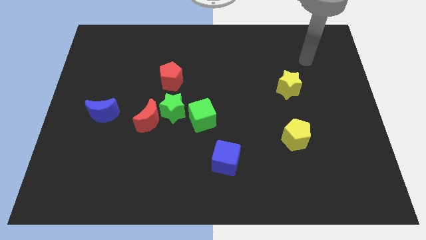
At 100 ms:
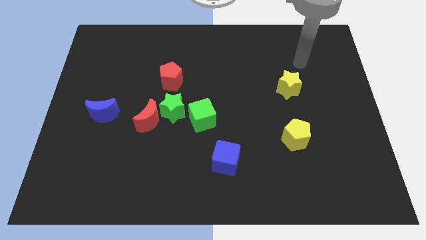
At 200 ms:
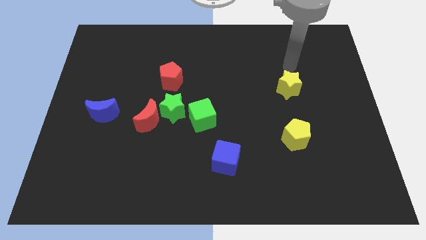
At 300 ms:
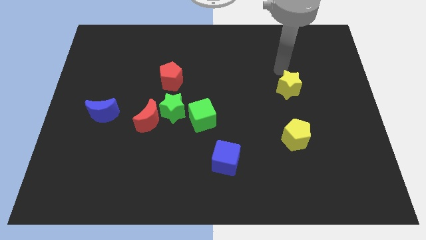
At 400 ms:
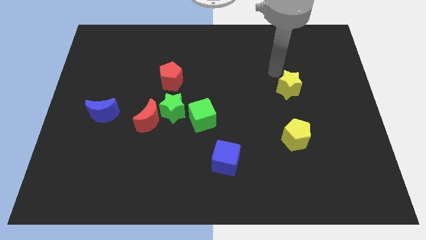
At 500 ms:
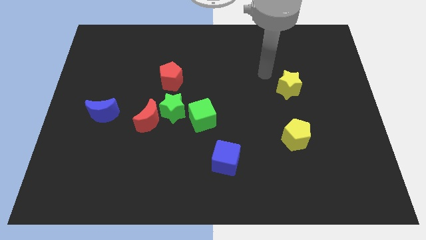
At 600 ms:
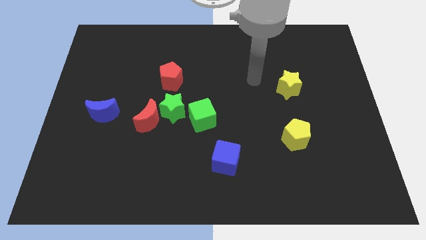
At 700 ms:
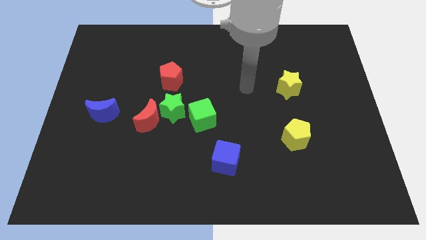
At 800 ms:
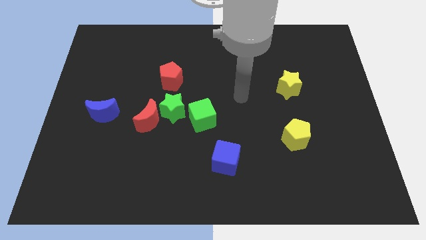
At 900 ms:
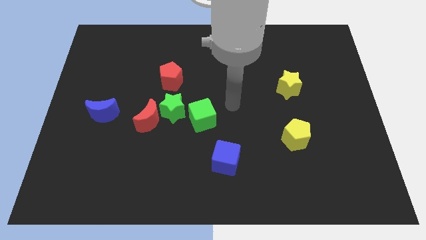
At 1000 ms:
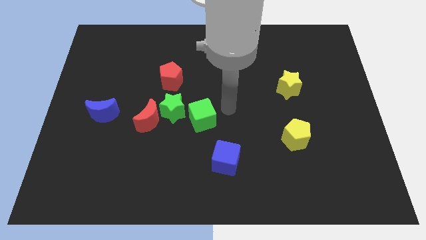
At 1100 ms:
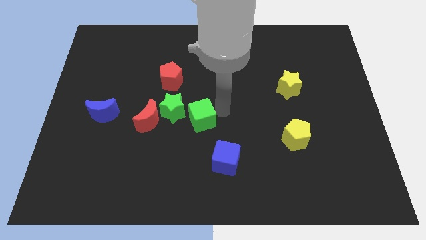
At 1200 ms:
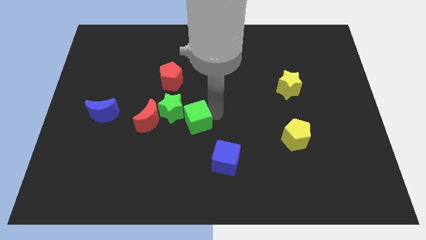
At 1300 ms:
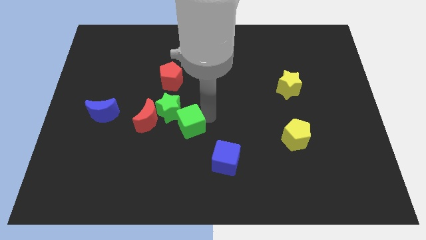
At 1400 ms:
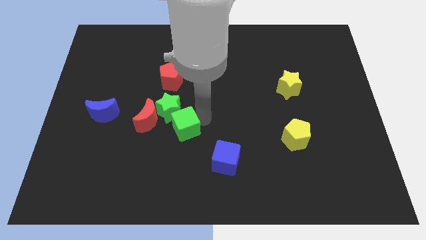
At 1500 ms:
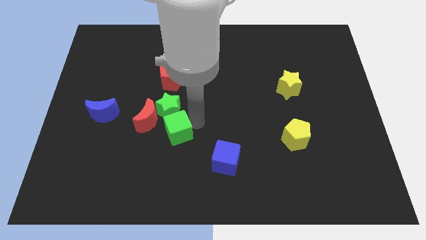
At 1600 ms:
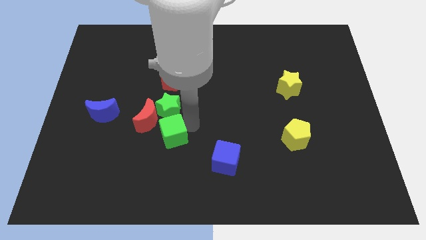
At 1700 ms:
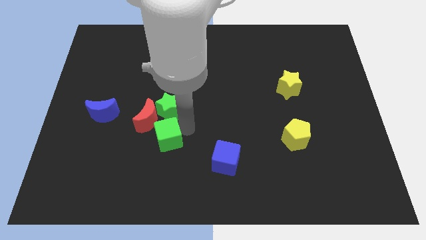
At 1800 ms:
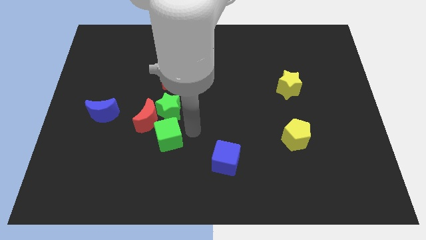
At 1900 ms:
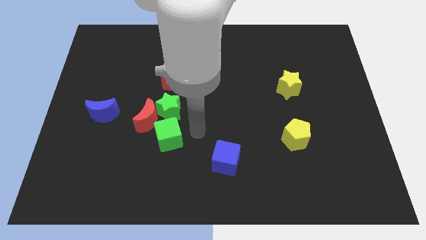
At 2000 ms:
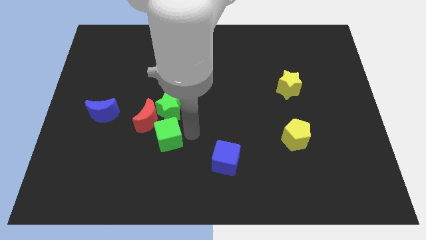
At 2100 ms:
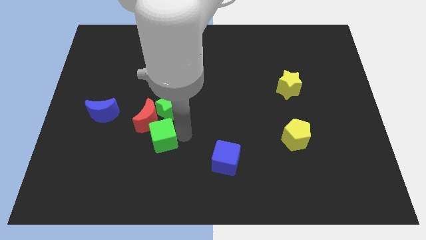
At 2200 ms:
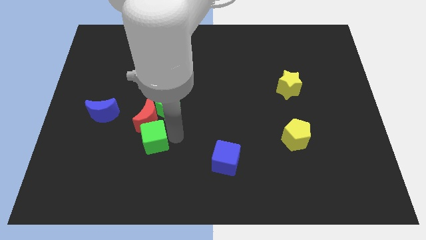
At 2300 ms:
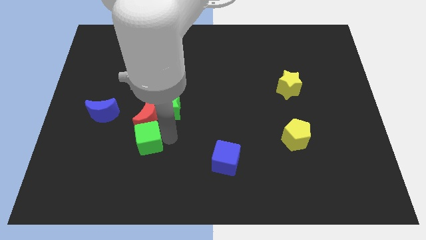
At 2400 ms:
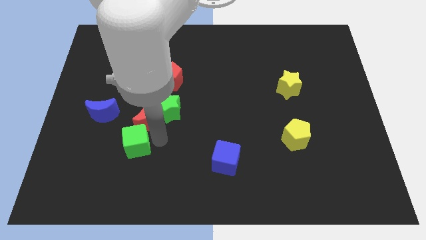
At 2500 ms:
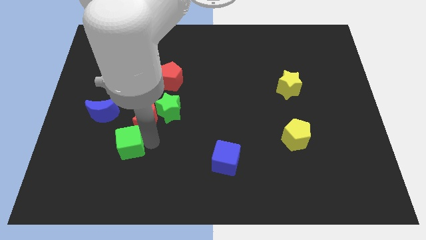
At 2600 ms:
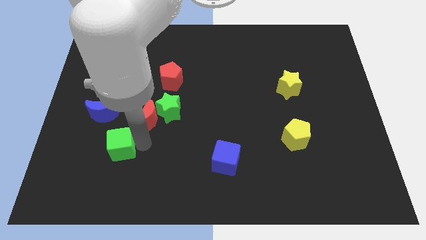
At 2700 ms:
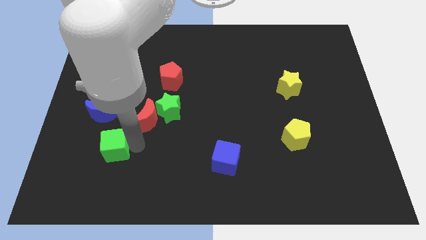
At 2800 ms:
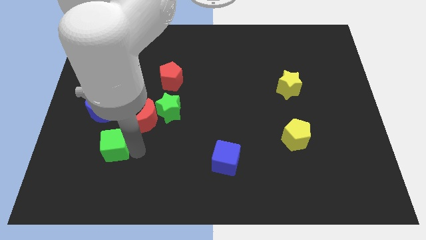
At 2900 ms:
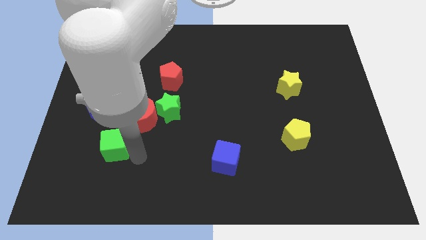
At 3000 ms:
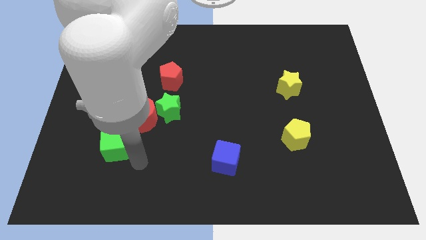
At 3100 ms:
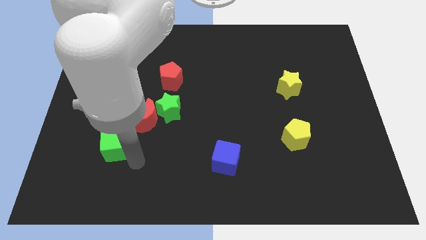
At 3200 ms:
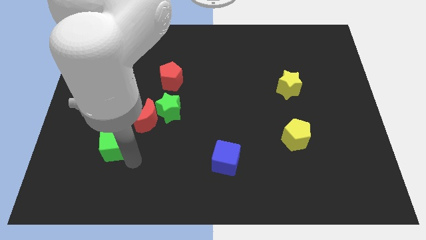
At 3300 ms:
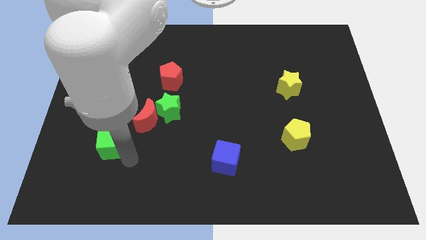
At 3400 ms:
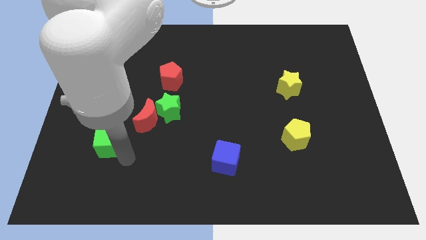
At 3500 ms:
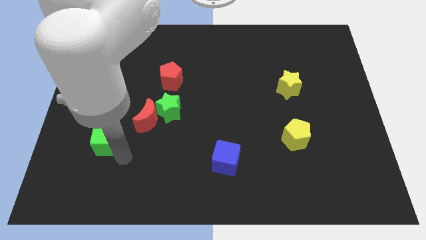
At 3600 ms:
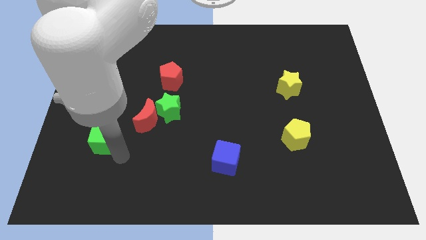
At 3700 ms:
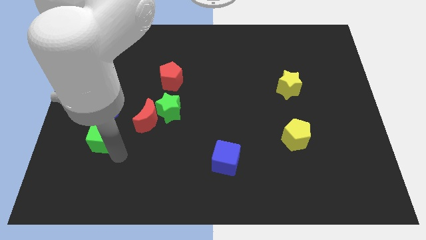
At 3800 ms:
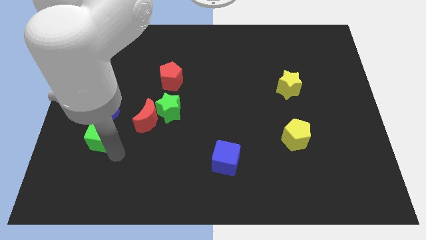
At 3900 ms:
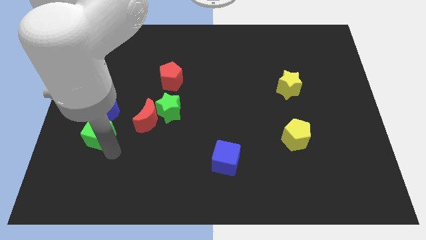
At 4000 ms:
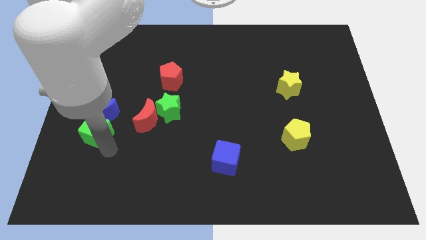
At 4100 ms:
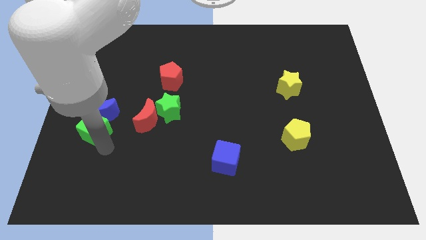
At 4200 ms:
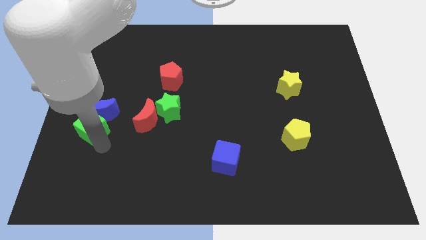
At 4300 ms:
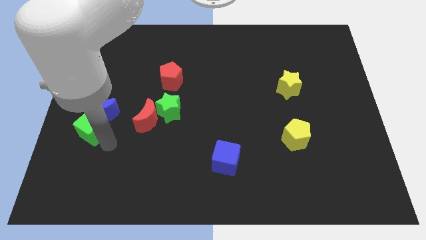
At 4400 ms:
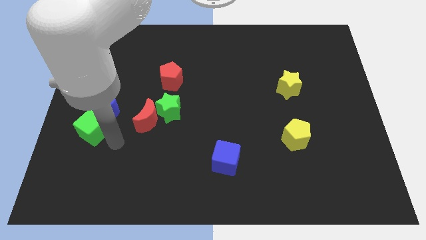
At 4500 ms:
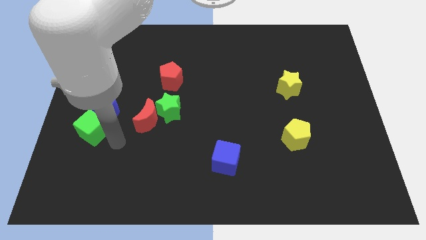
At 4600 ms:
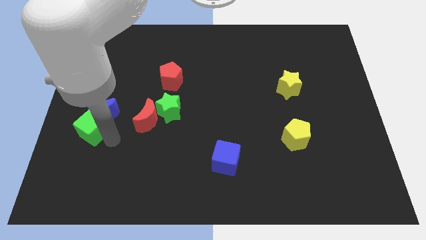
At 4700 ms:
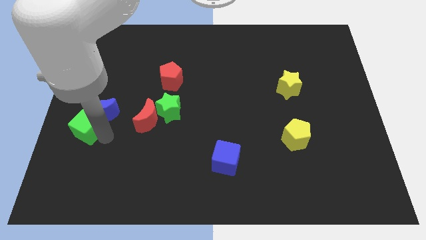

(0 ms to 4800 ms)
slide the green cube to the center left

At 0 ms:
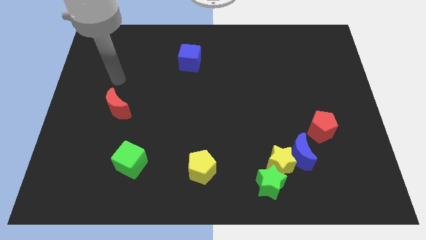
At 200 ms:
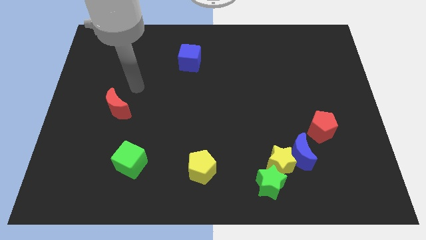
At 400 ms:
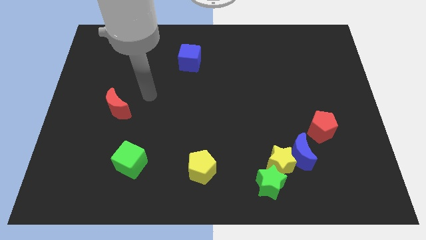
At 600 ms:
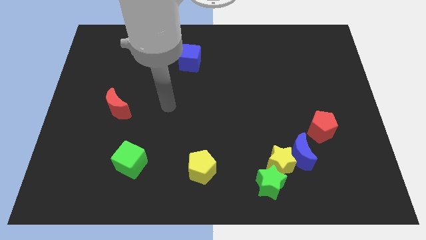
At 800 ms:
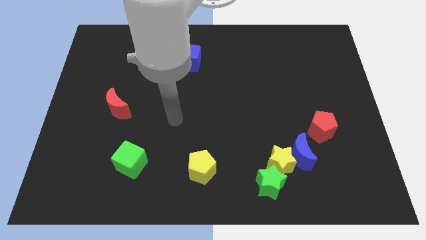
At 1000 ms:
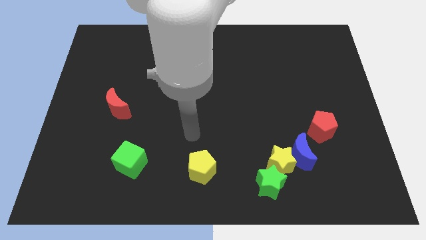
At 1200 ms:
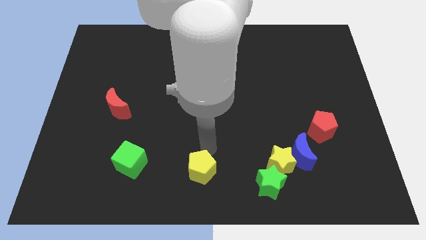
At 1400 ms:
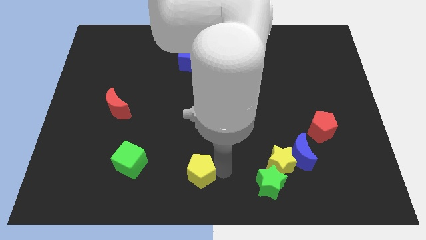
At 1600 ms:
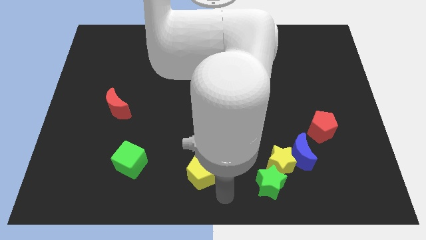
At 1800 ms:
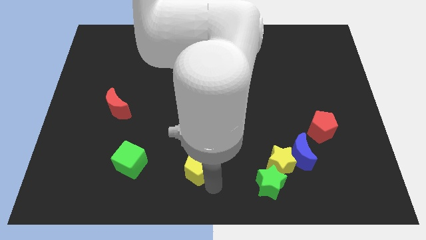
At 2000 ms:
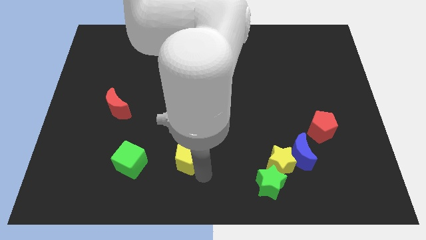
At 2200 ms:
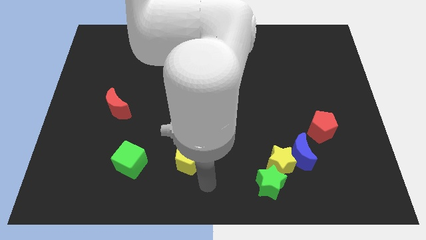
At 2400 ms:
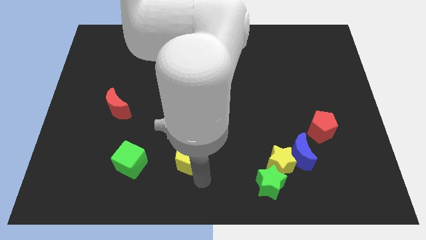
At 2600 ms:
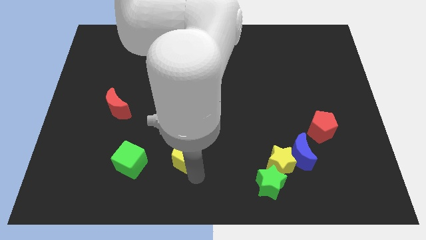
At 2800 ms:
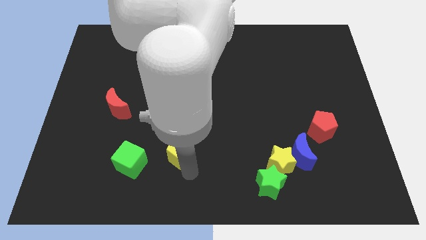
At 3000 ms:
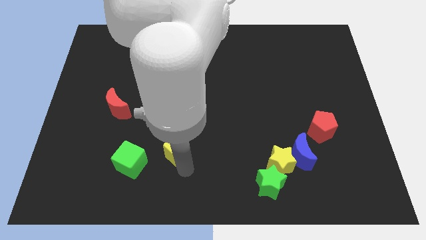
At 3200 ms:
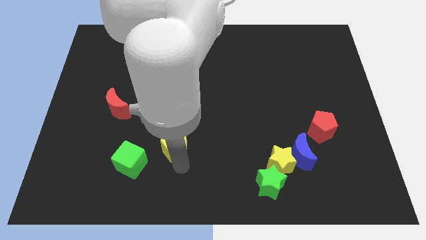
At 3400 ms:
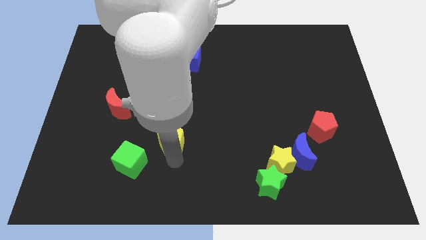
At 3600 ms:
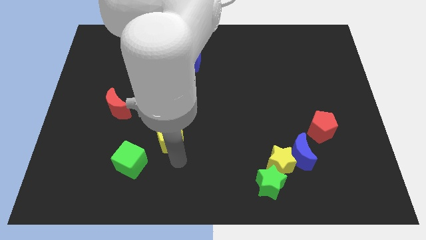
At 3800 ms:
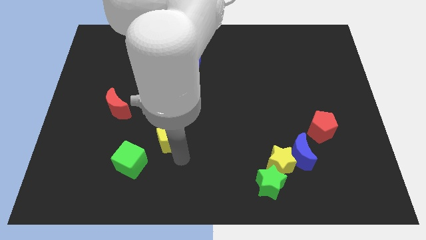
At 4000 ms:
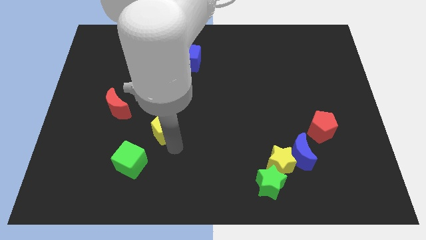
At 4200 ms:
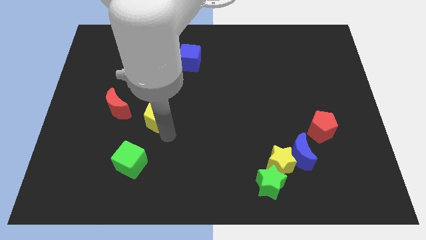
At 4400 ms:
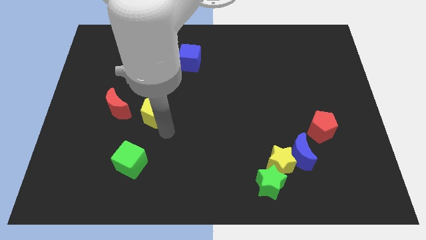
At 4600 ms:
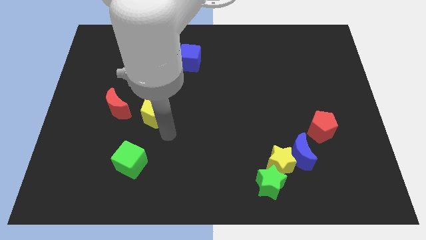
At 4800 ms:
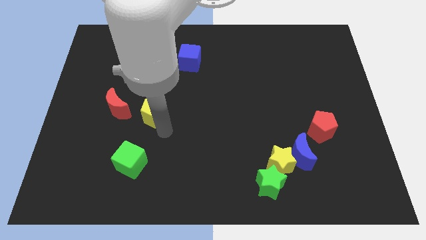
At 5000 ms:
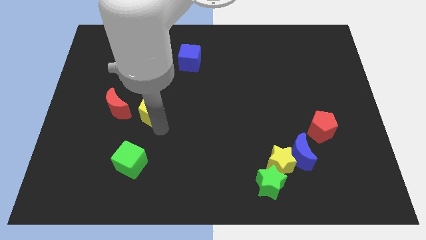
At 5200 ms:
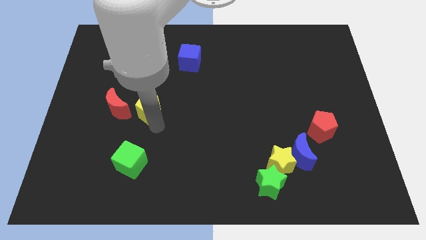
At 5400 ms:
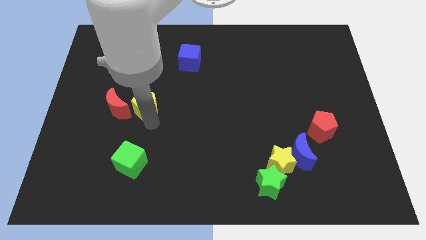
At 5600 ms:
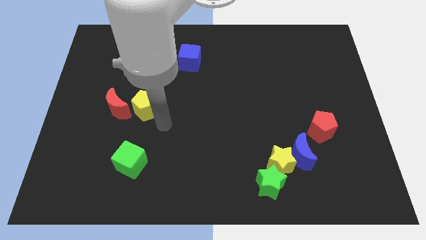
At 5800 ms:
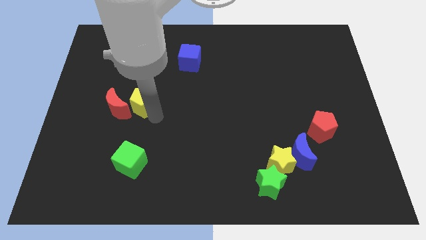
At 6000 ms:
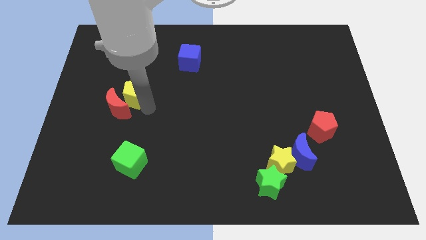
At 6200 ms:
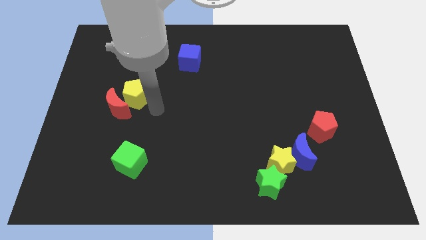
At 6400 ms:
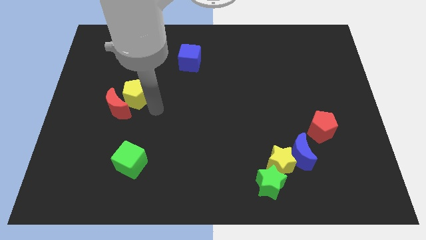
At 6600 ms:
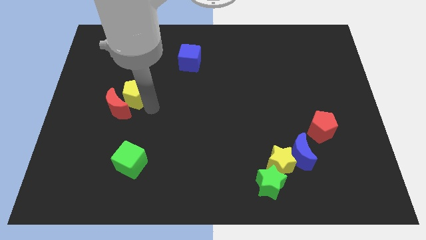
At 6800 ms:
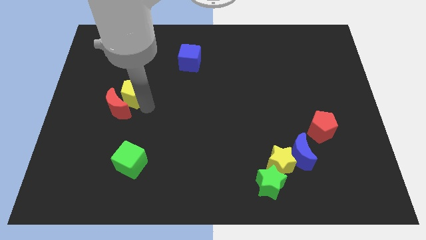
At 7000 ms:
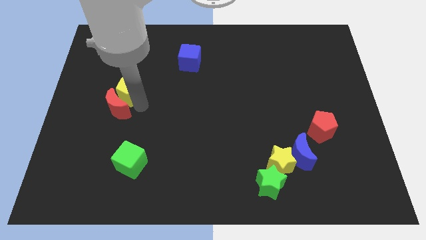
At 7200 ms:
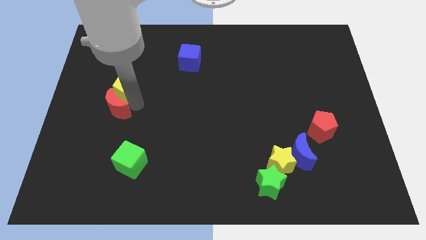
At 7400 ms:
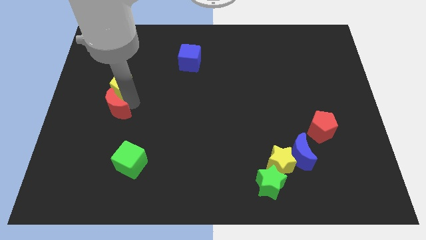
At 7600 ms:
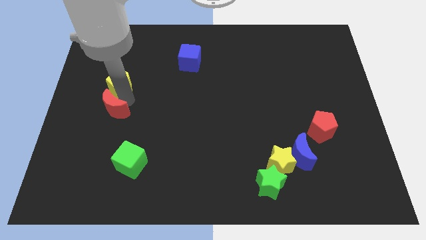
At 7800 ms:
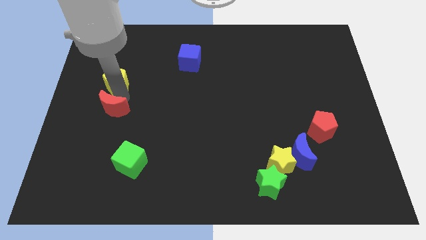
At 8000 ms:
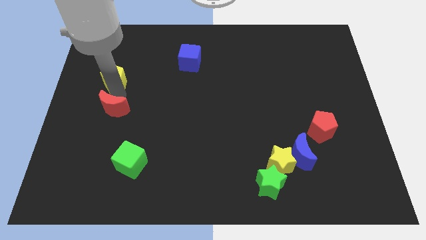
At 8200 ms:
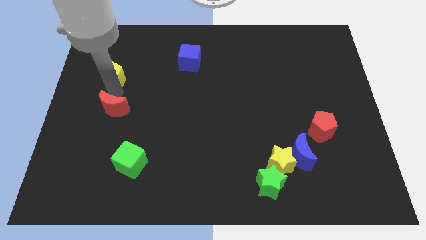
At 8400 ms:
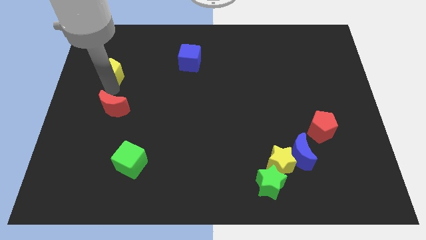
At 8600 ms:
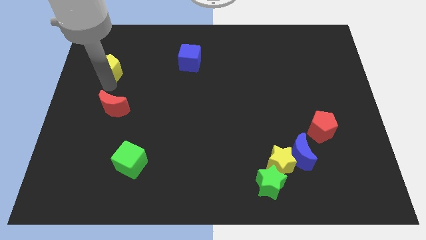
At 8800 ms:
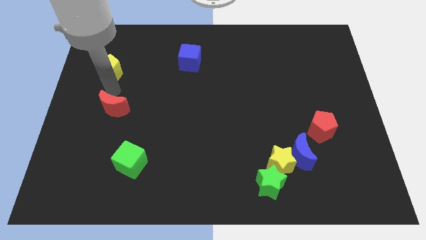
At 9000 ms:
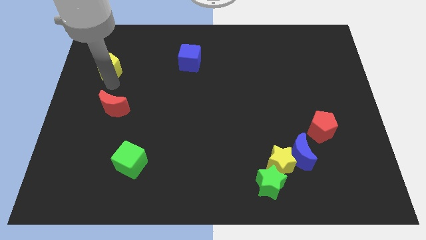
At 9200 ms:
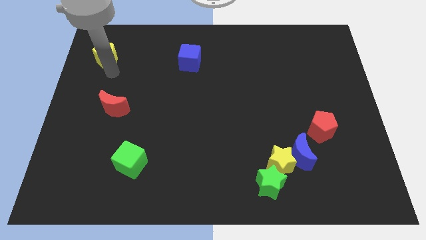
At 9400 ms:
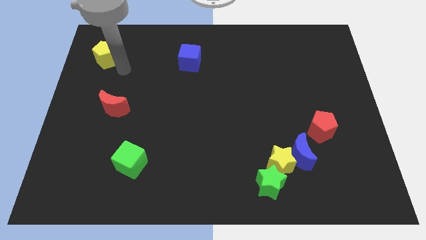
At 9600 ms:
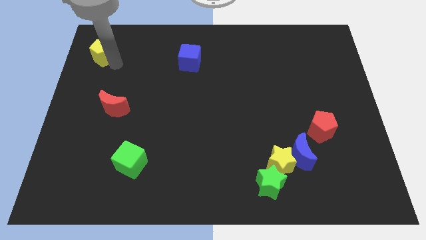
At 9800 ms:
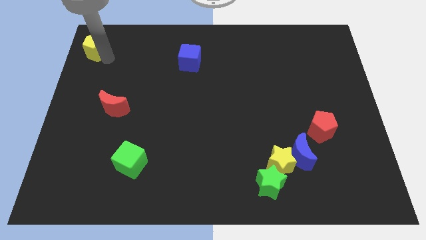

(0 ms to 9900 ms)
move the yellow pentagon to the top left
